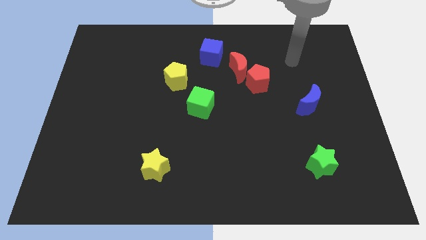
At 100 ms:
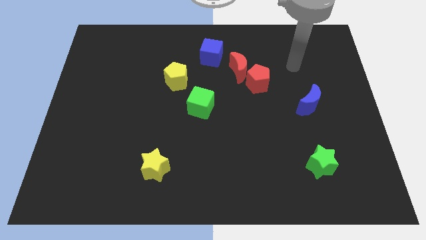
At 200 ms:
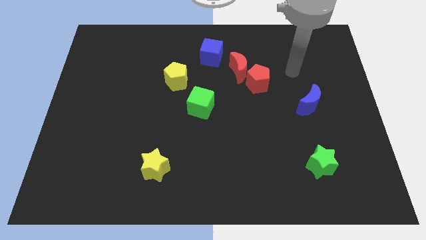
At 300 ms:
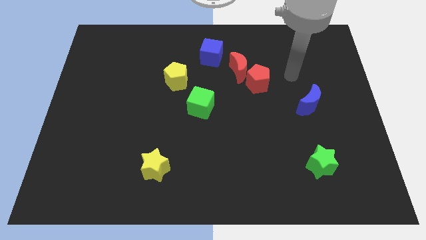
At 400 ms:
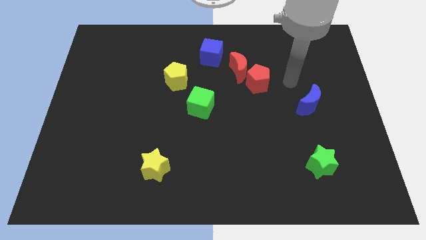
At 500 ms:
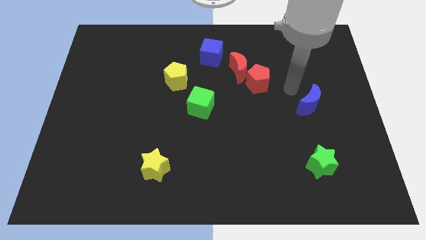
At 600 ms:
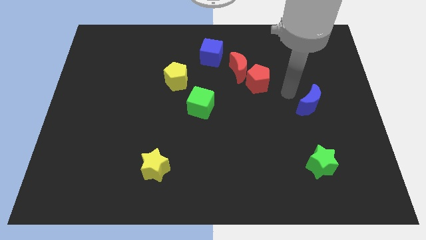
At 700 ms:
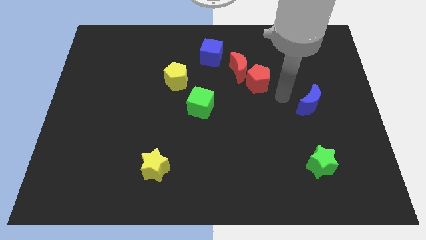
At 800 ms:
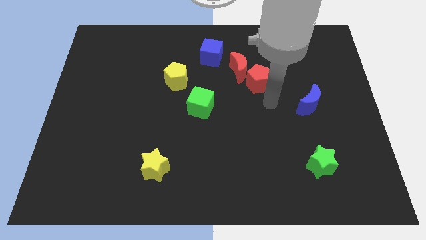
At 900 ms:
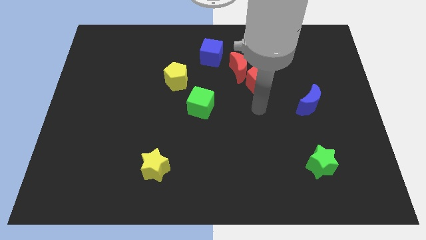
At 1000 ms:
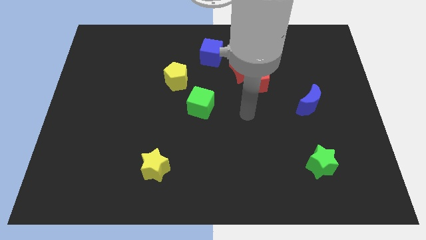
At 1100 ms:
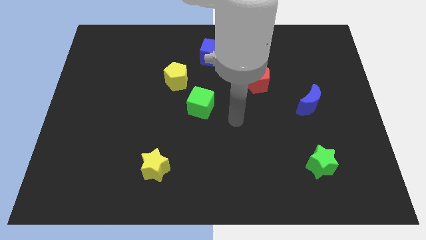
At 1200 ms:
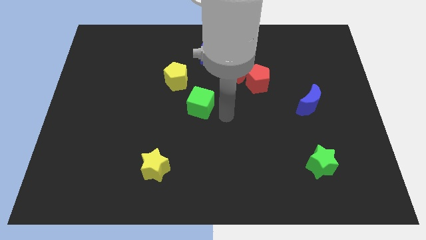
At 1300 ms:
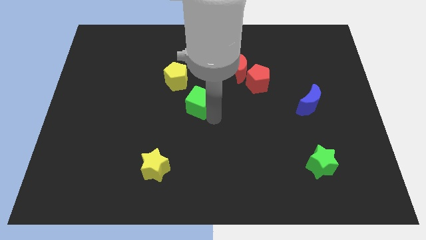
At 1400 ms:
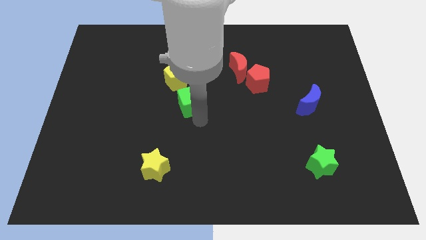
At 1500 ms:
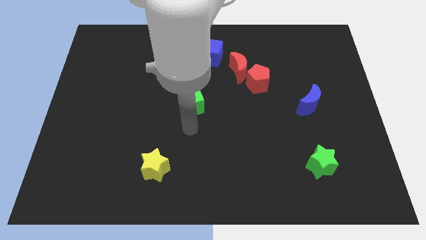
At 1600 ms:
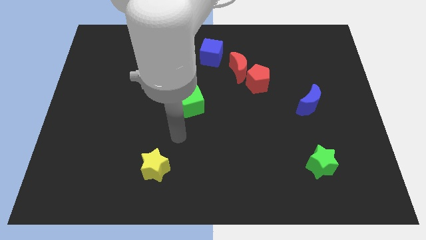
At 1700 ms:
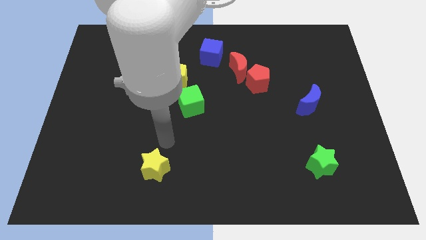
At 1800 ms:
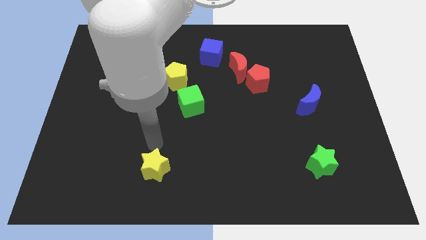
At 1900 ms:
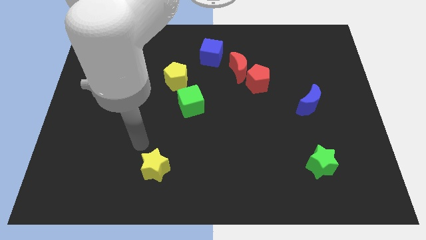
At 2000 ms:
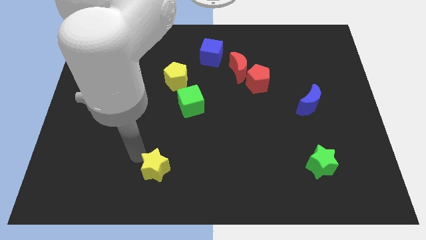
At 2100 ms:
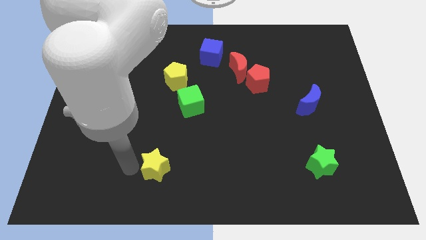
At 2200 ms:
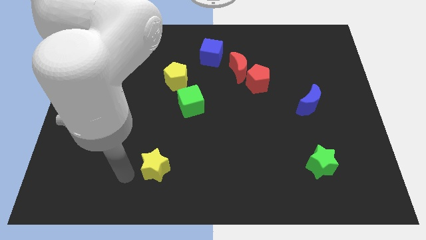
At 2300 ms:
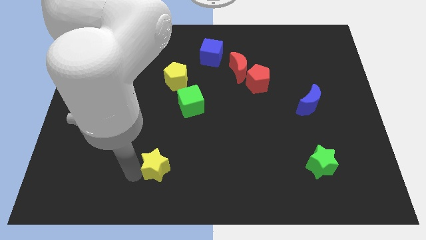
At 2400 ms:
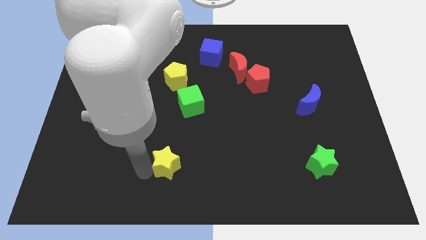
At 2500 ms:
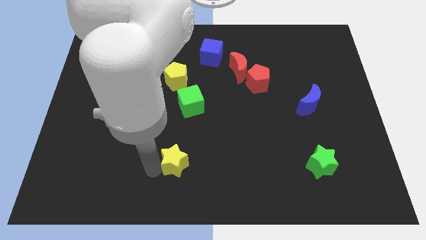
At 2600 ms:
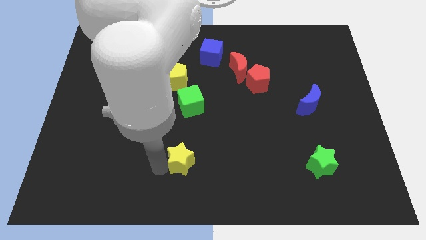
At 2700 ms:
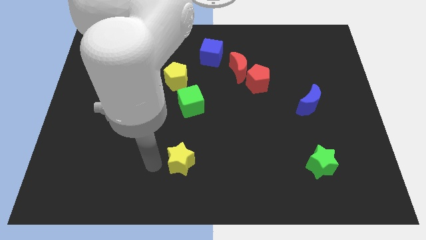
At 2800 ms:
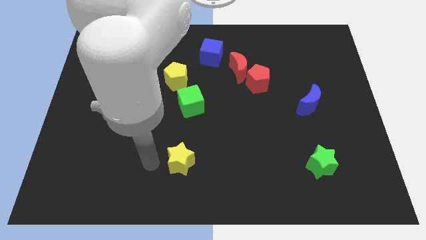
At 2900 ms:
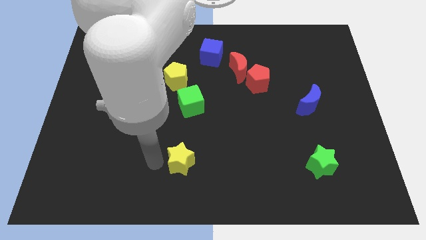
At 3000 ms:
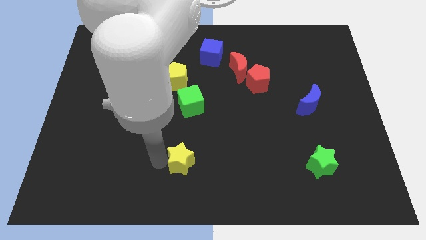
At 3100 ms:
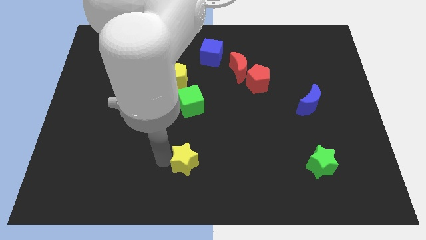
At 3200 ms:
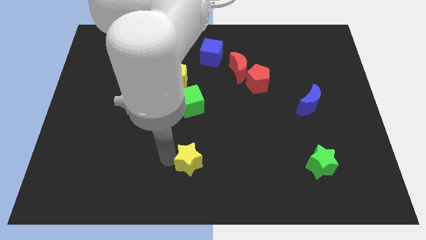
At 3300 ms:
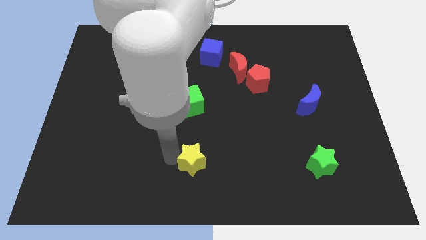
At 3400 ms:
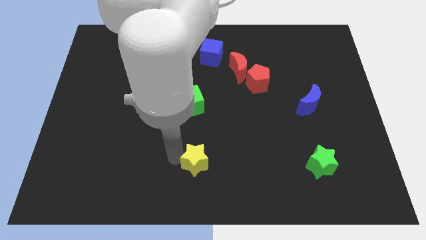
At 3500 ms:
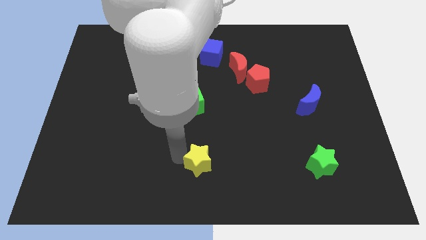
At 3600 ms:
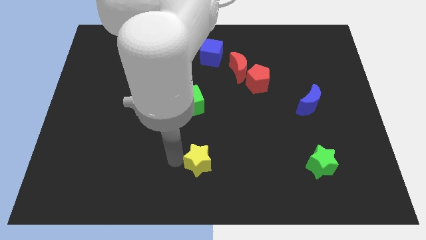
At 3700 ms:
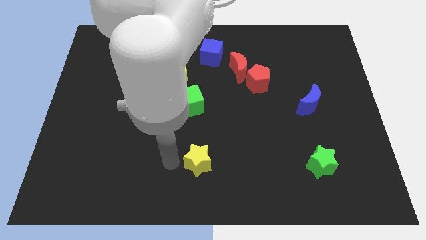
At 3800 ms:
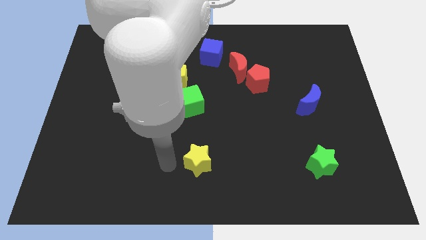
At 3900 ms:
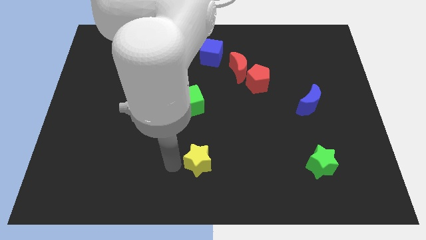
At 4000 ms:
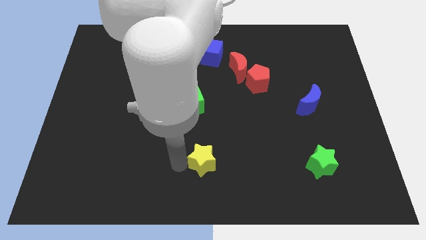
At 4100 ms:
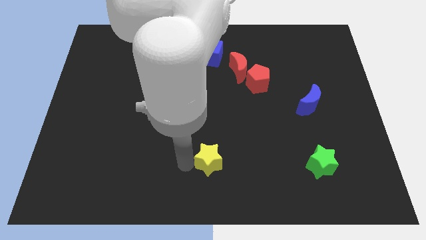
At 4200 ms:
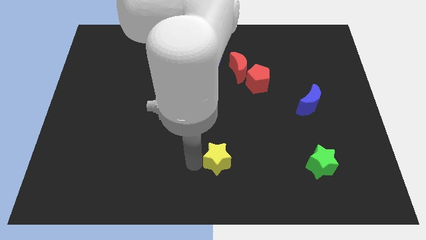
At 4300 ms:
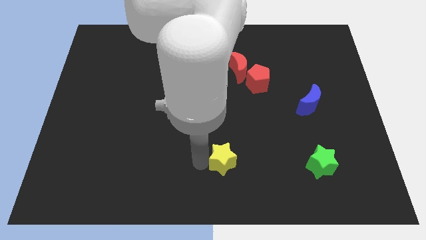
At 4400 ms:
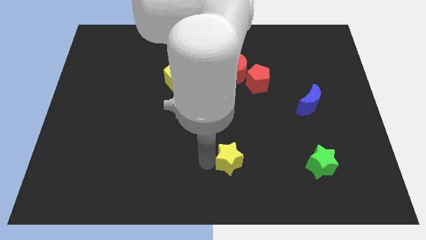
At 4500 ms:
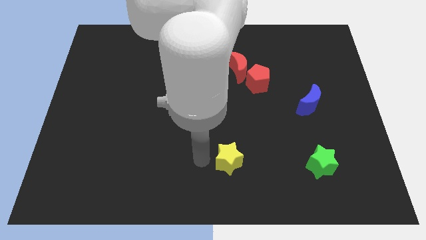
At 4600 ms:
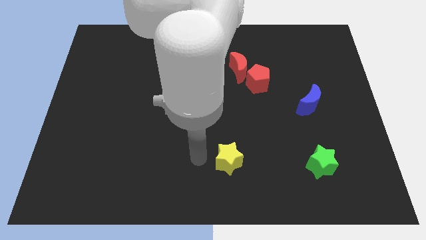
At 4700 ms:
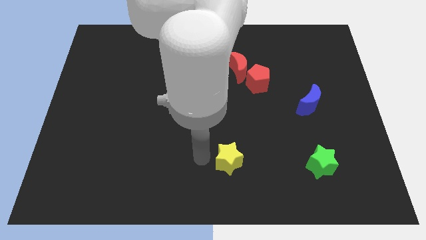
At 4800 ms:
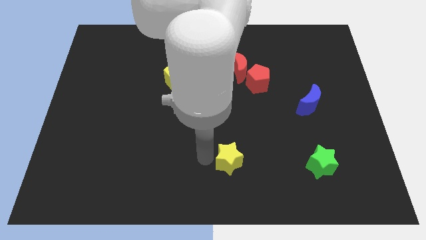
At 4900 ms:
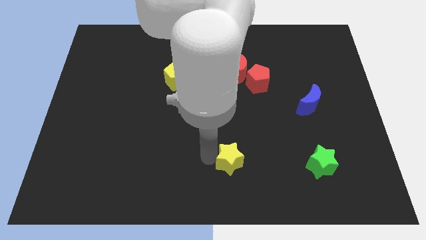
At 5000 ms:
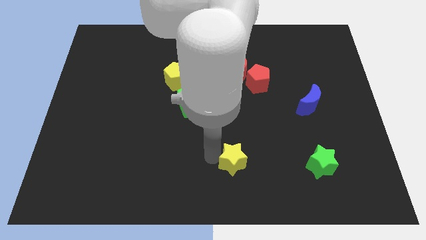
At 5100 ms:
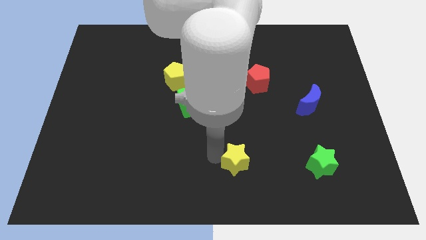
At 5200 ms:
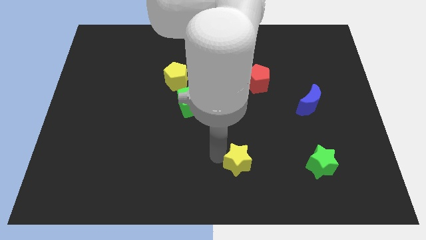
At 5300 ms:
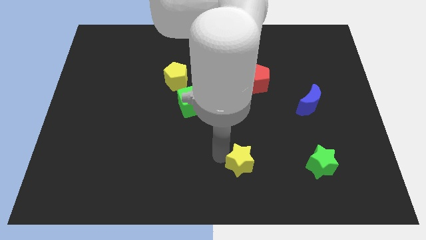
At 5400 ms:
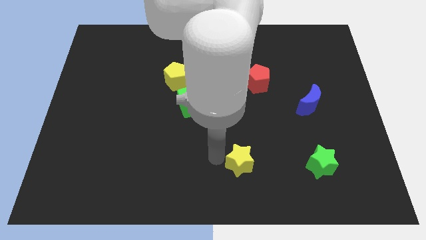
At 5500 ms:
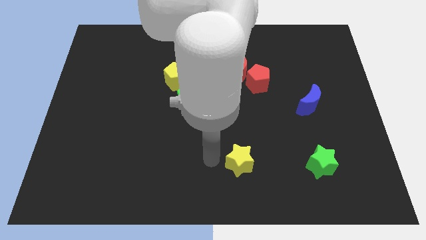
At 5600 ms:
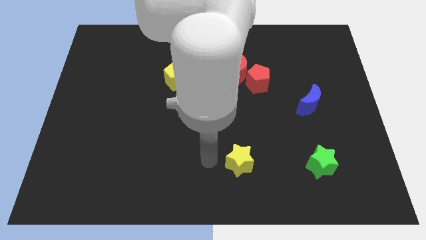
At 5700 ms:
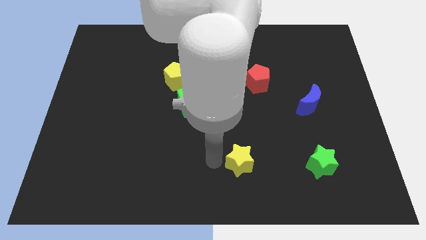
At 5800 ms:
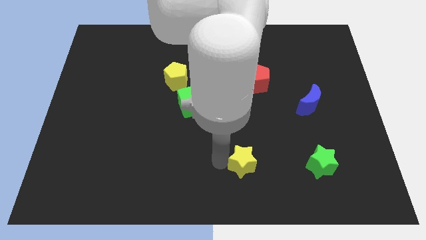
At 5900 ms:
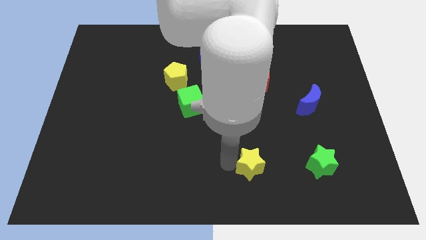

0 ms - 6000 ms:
slide the yellow star left of the green star

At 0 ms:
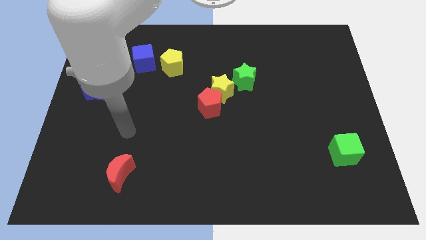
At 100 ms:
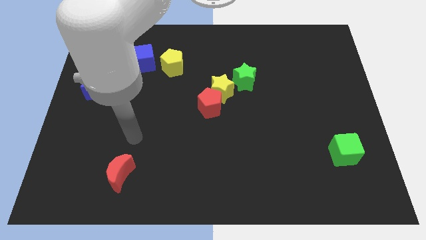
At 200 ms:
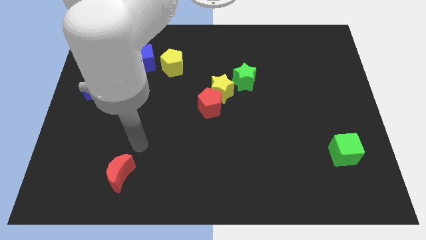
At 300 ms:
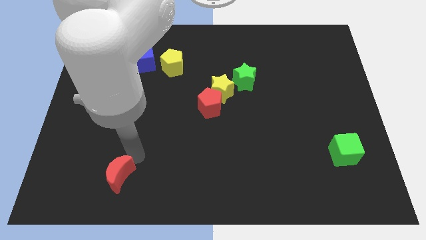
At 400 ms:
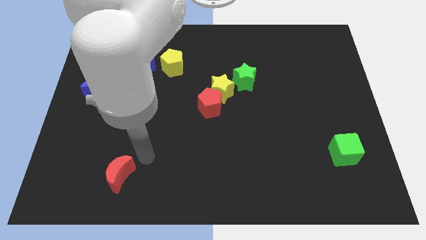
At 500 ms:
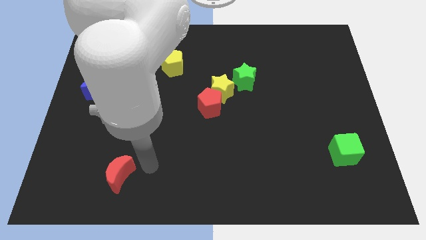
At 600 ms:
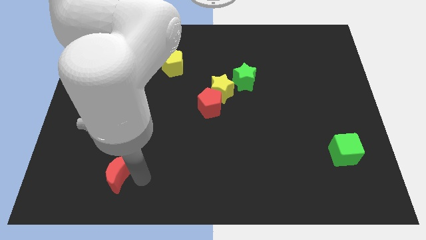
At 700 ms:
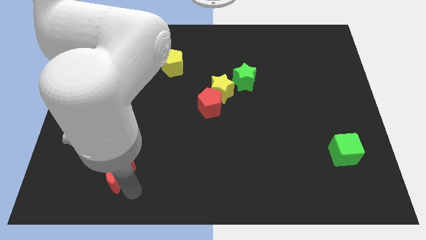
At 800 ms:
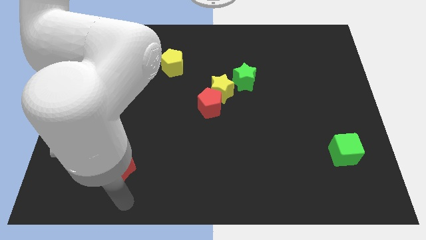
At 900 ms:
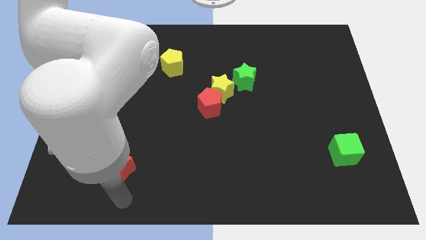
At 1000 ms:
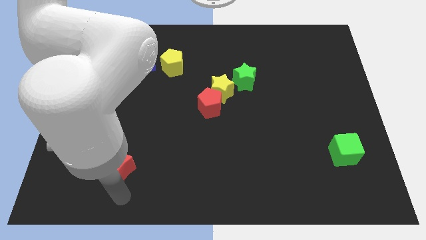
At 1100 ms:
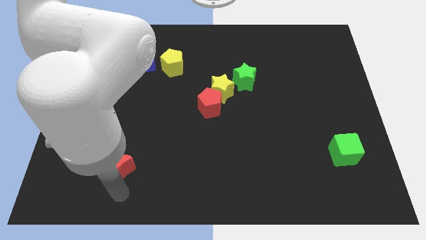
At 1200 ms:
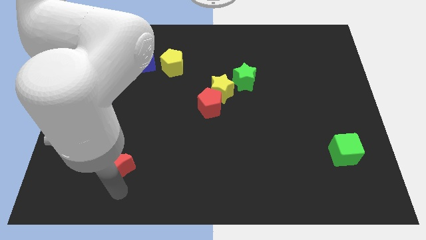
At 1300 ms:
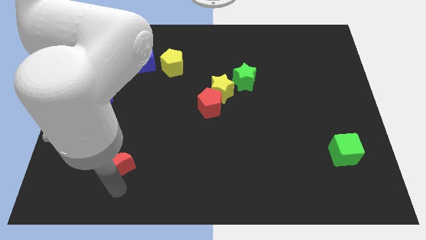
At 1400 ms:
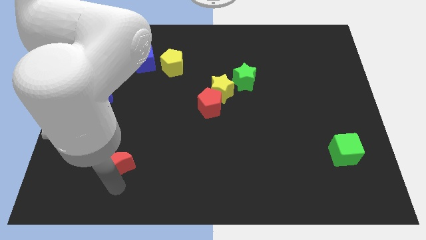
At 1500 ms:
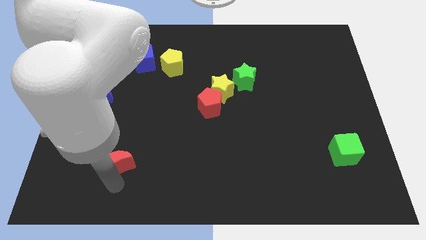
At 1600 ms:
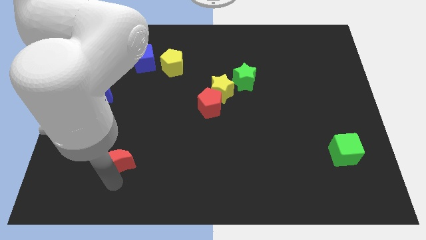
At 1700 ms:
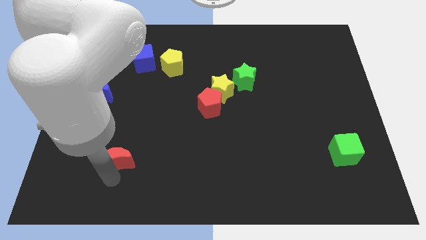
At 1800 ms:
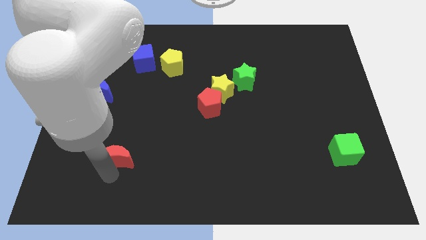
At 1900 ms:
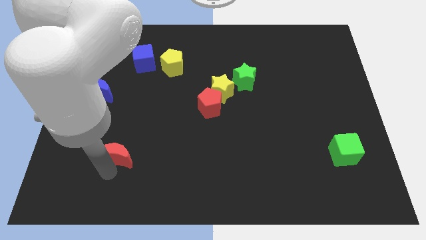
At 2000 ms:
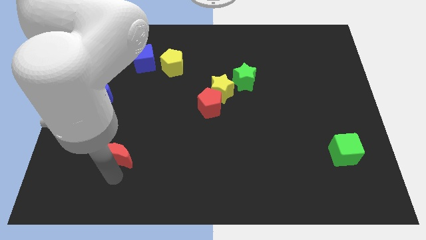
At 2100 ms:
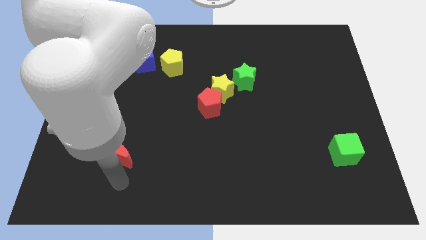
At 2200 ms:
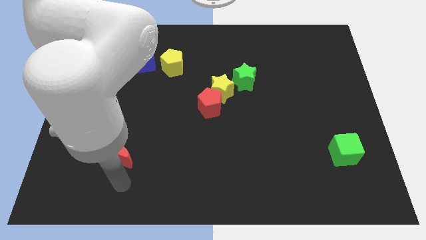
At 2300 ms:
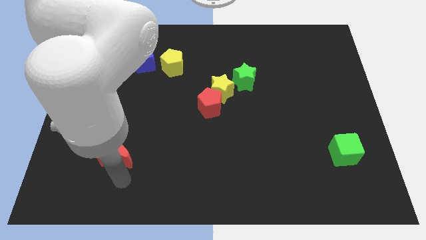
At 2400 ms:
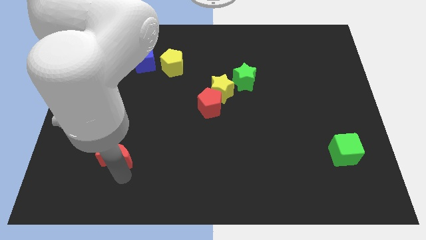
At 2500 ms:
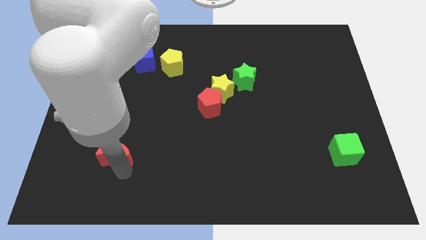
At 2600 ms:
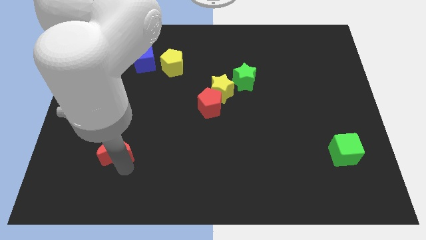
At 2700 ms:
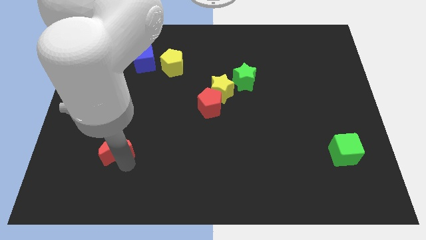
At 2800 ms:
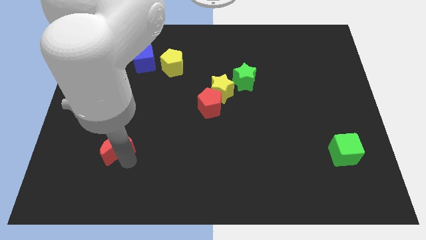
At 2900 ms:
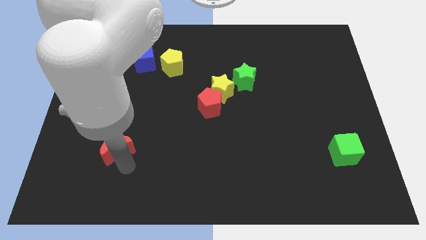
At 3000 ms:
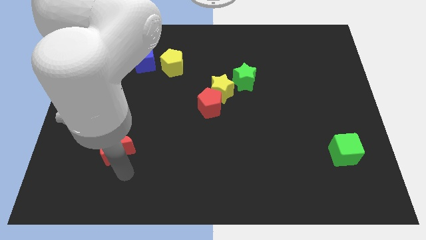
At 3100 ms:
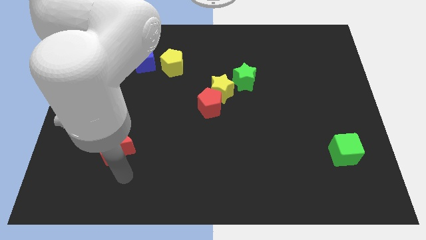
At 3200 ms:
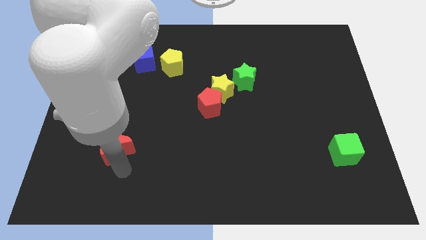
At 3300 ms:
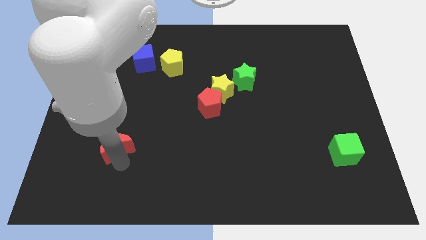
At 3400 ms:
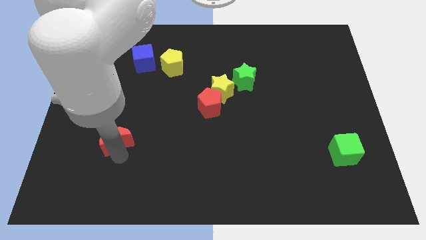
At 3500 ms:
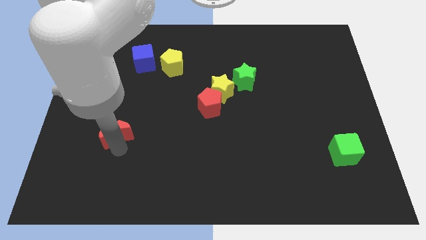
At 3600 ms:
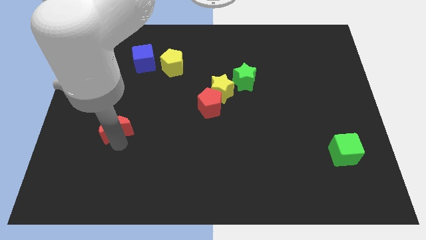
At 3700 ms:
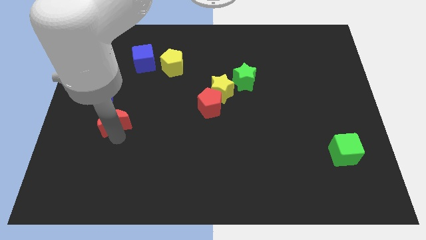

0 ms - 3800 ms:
slide the red moon diagonally down and to the right of the blue moon
